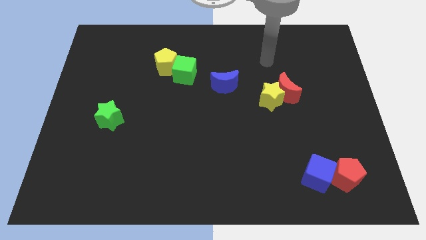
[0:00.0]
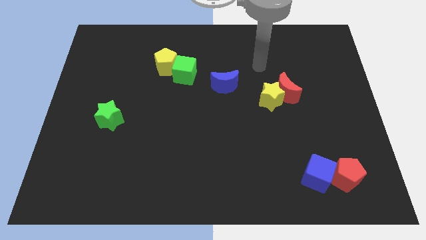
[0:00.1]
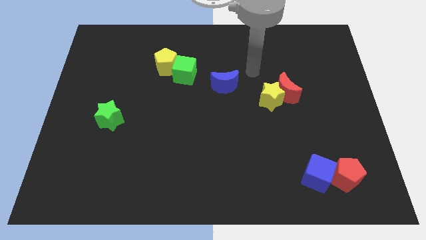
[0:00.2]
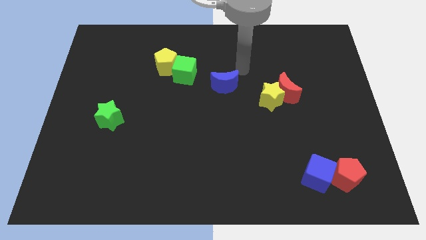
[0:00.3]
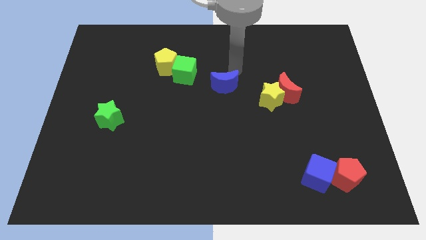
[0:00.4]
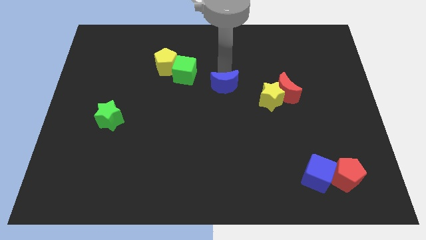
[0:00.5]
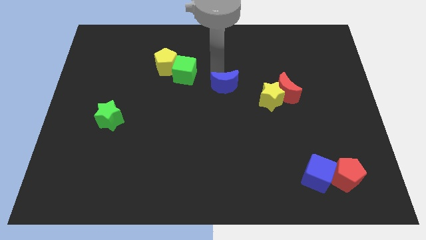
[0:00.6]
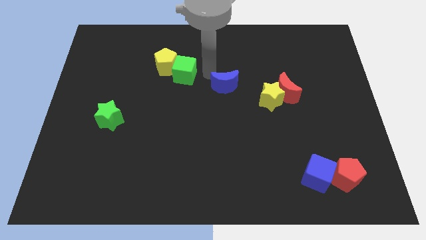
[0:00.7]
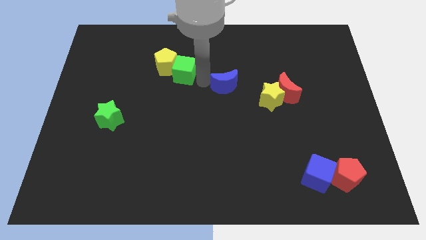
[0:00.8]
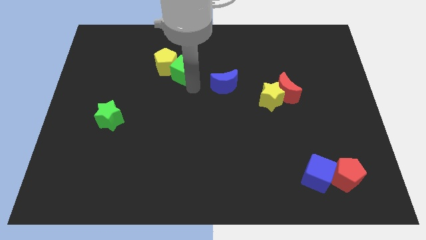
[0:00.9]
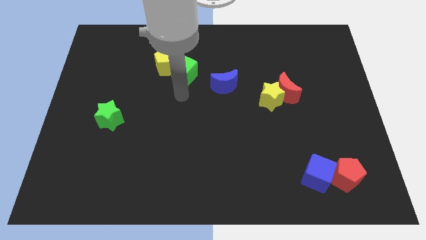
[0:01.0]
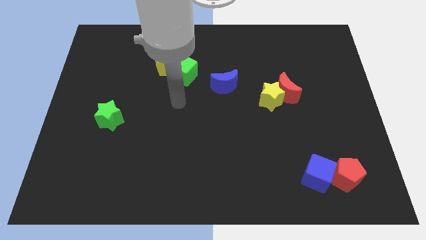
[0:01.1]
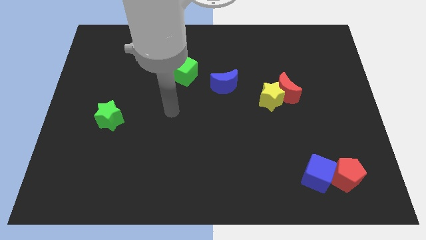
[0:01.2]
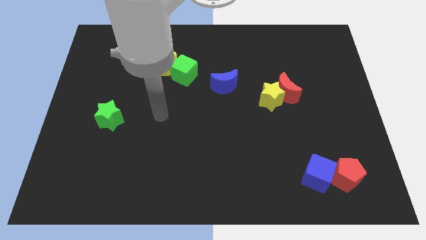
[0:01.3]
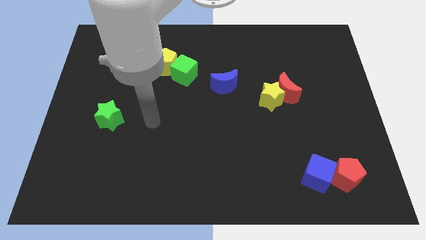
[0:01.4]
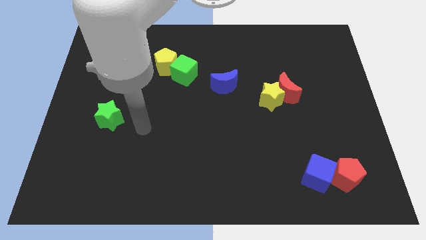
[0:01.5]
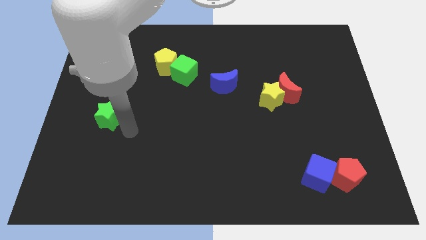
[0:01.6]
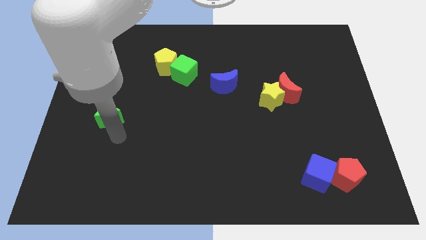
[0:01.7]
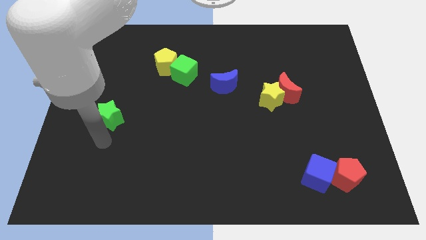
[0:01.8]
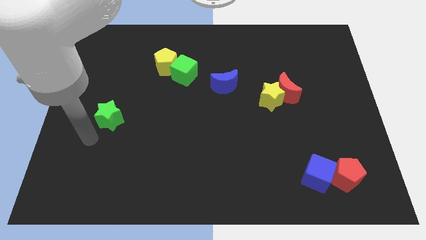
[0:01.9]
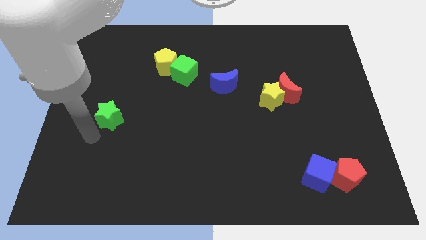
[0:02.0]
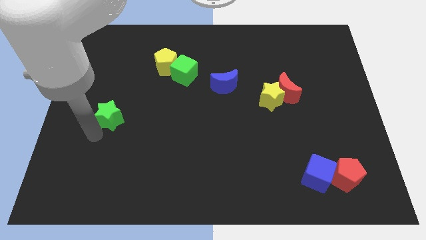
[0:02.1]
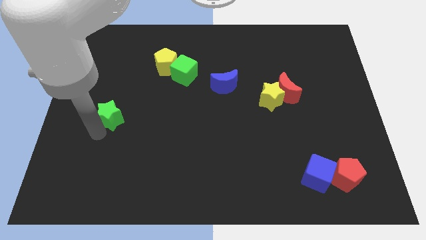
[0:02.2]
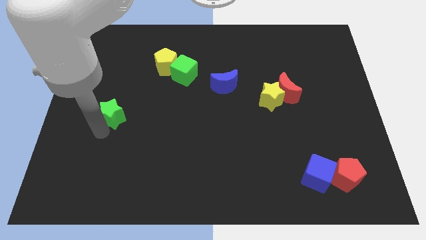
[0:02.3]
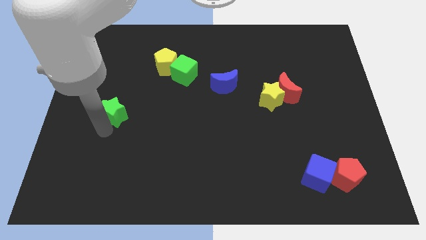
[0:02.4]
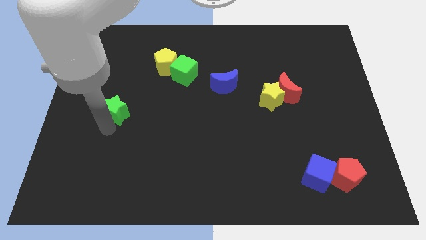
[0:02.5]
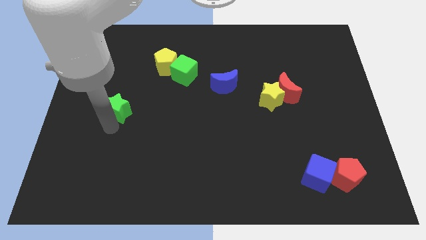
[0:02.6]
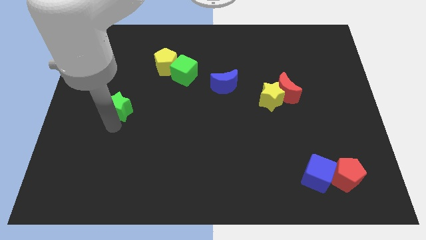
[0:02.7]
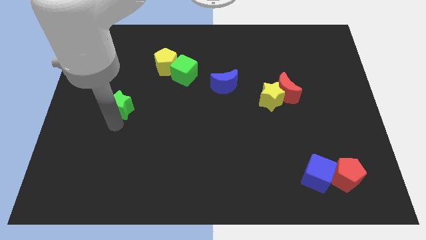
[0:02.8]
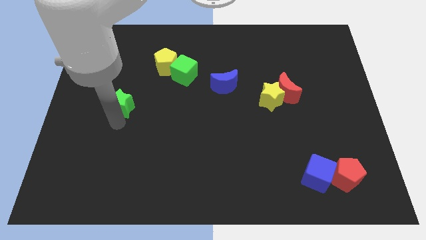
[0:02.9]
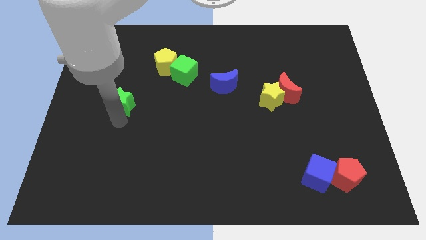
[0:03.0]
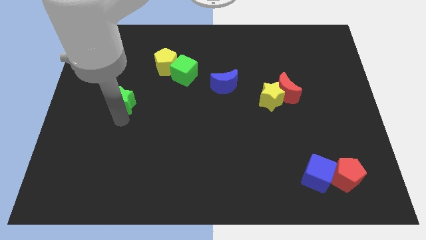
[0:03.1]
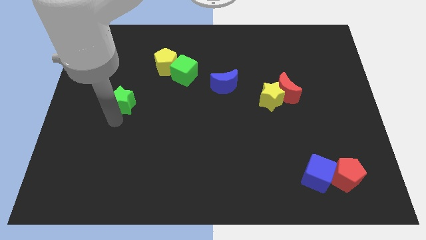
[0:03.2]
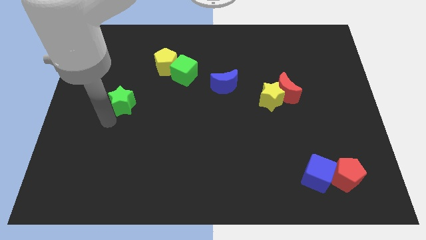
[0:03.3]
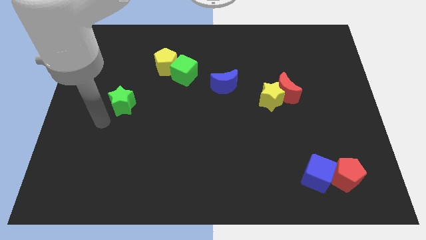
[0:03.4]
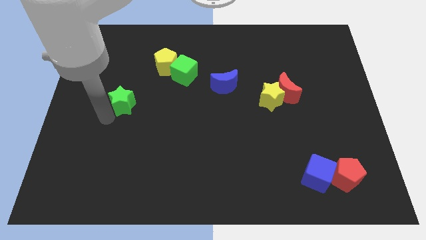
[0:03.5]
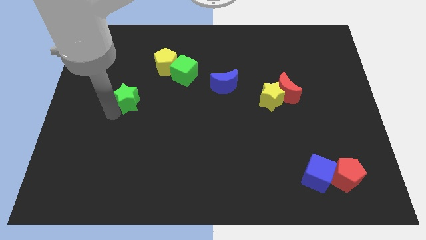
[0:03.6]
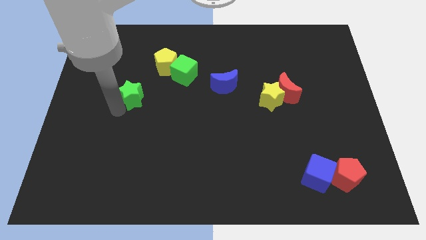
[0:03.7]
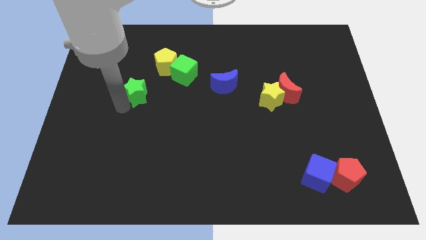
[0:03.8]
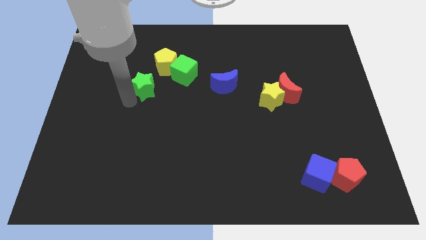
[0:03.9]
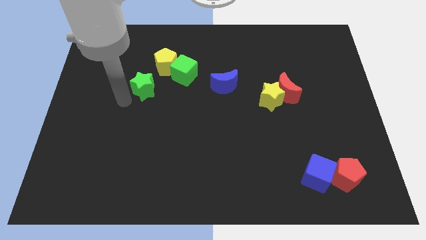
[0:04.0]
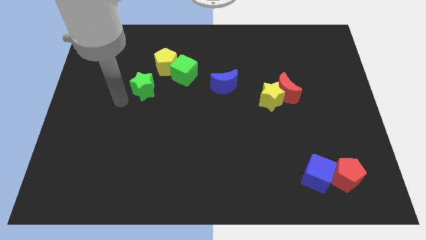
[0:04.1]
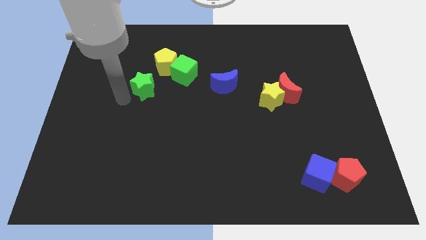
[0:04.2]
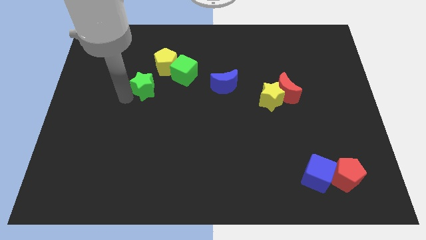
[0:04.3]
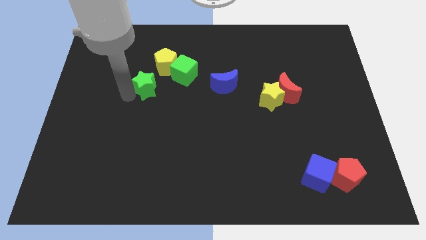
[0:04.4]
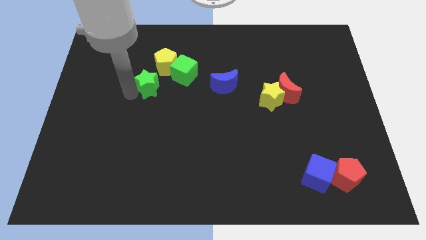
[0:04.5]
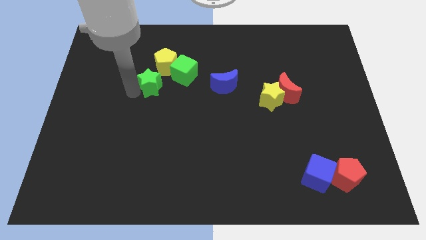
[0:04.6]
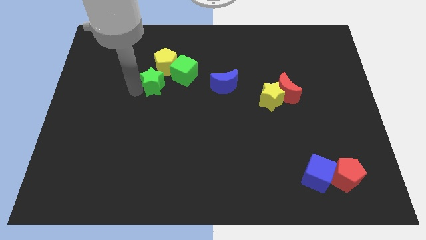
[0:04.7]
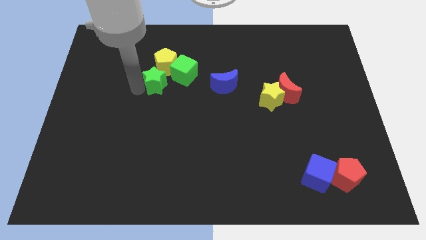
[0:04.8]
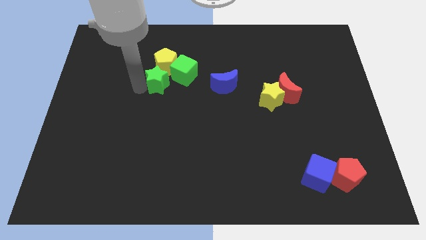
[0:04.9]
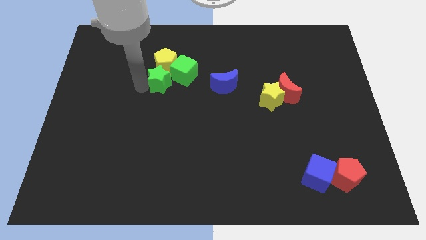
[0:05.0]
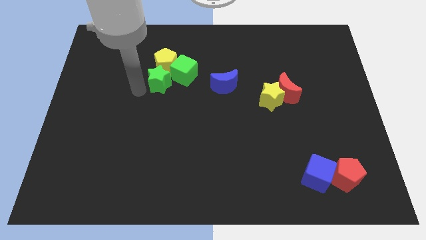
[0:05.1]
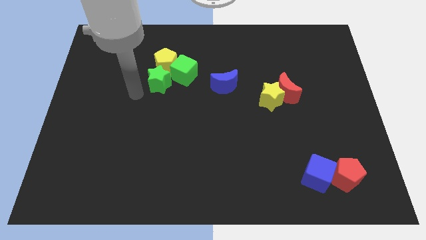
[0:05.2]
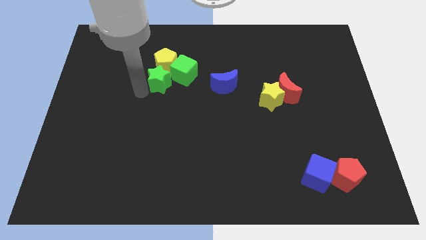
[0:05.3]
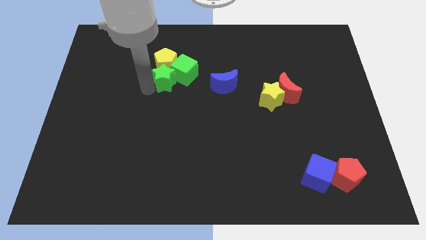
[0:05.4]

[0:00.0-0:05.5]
slide the green star towards the green cube

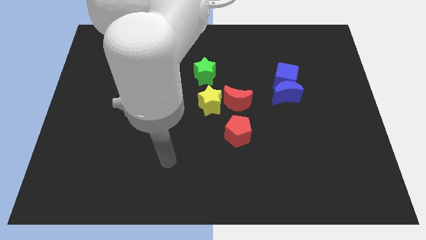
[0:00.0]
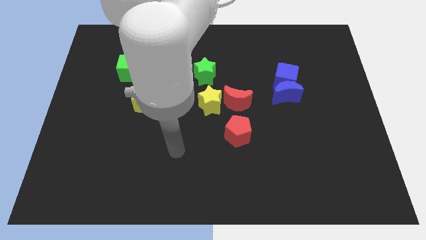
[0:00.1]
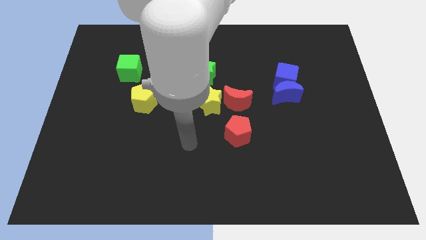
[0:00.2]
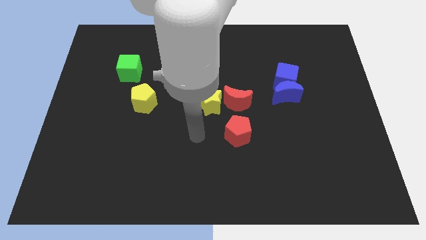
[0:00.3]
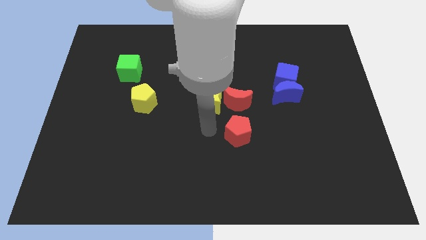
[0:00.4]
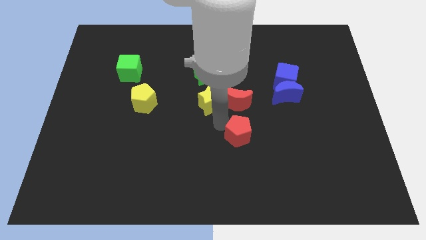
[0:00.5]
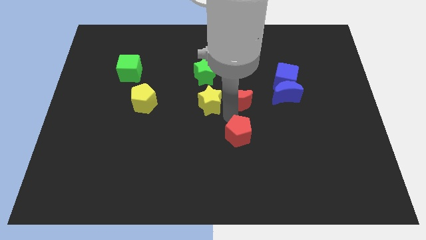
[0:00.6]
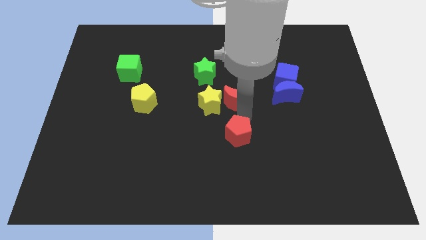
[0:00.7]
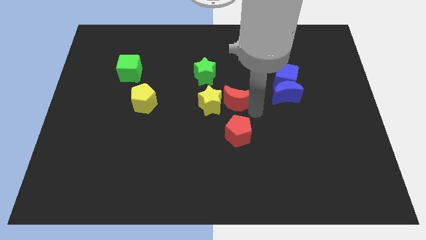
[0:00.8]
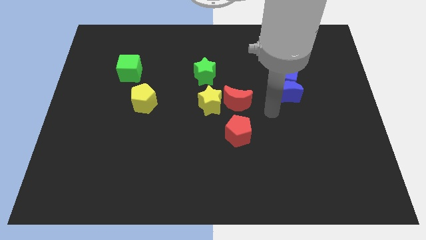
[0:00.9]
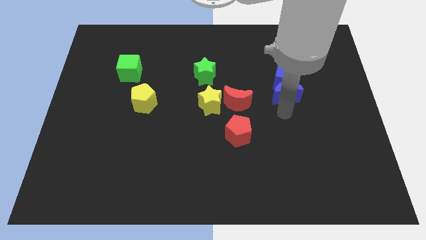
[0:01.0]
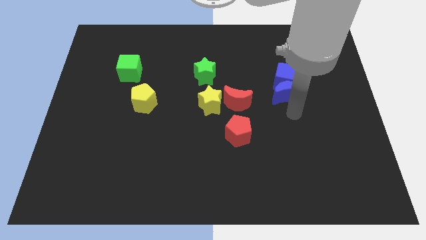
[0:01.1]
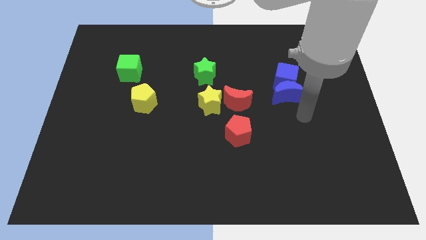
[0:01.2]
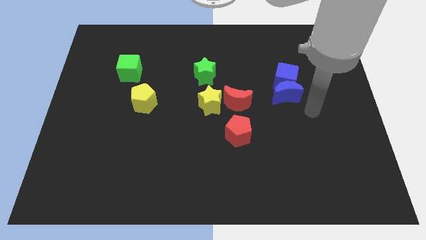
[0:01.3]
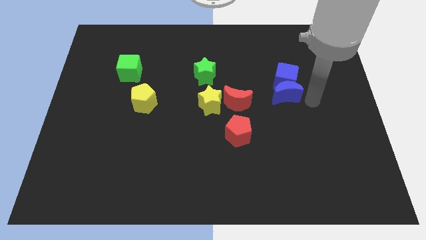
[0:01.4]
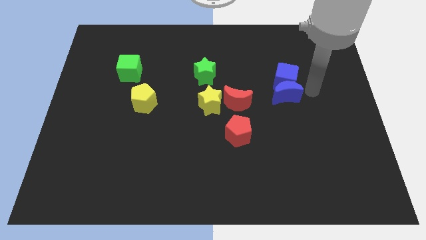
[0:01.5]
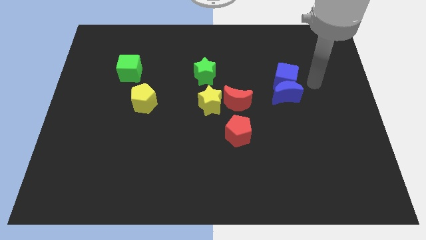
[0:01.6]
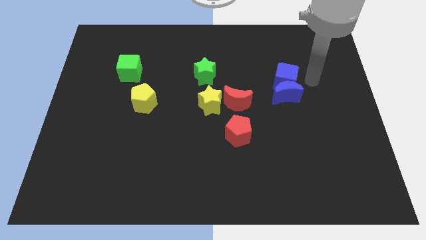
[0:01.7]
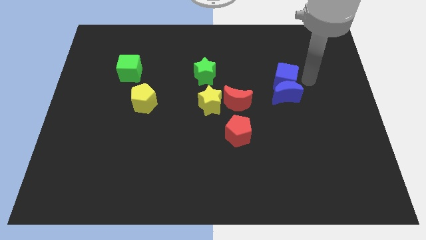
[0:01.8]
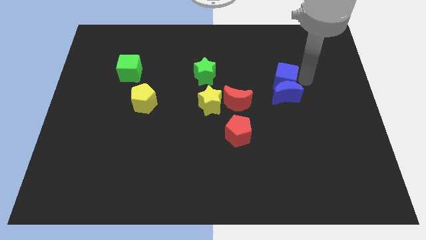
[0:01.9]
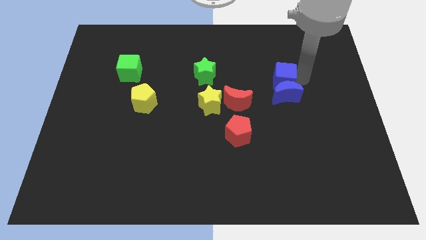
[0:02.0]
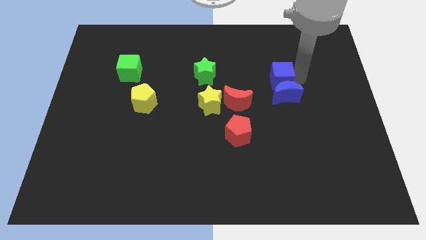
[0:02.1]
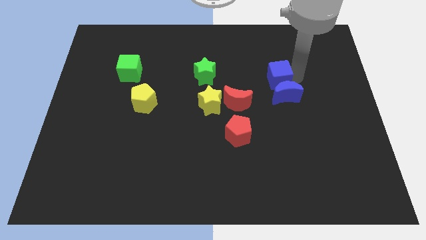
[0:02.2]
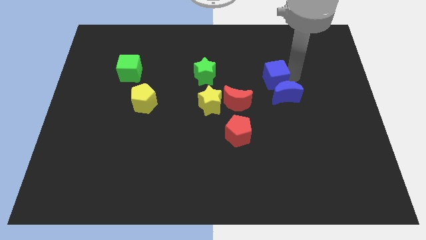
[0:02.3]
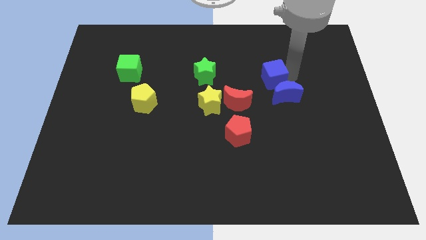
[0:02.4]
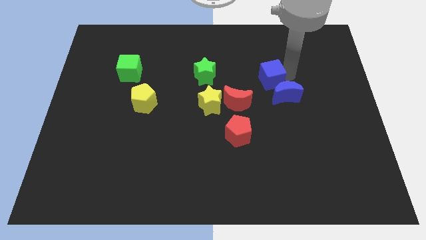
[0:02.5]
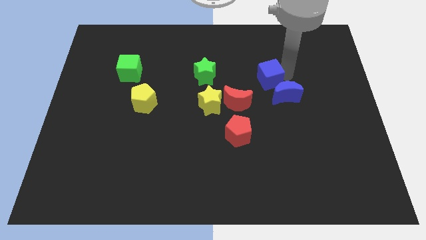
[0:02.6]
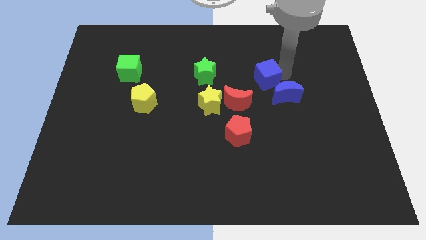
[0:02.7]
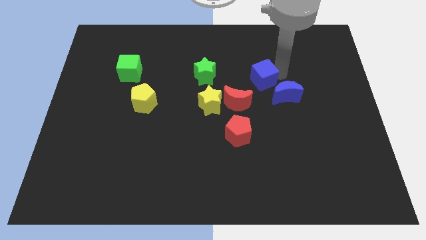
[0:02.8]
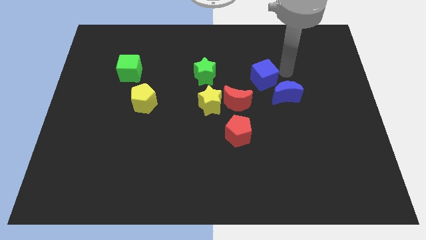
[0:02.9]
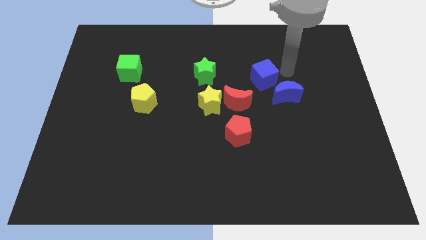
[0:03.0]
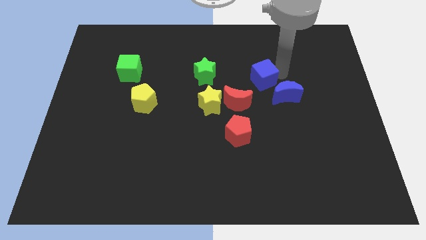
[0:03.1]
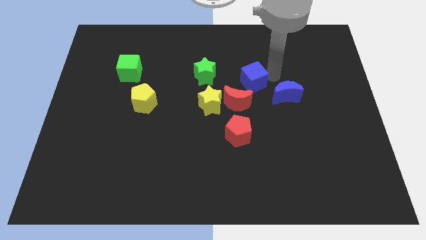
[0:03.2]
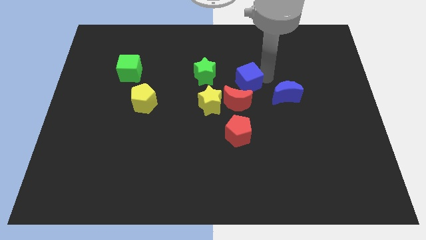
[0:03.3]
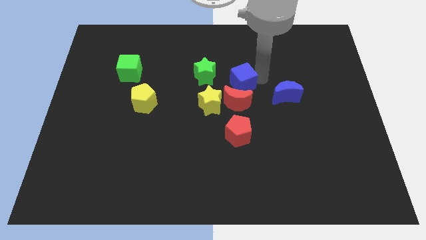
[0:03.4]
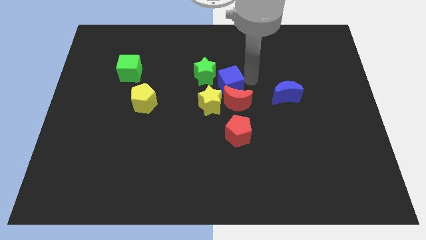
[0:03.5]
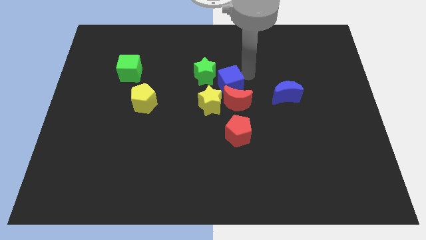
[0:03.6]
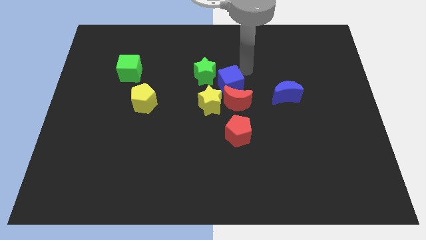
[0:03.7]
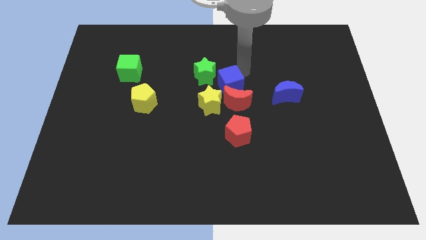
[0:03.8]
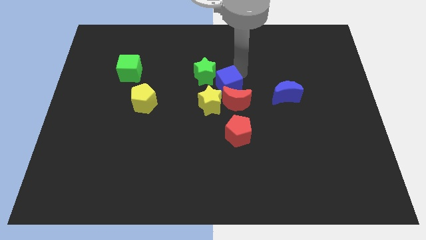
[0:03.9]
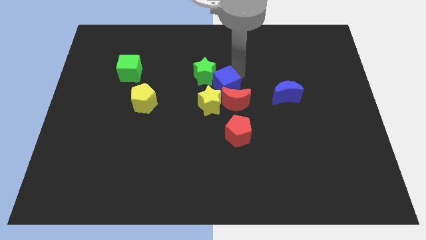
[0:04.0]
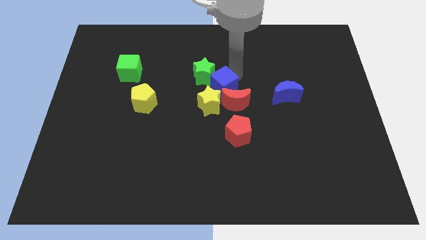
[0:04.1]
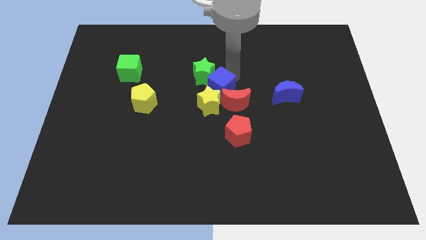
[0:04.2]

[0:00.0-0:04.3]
push the blue cube to the yellow star
